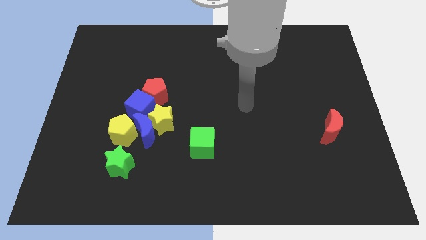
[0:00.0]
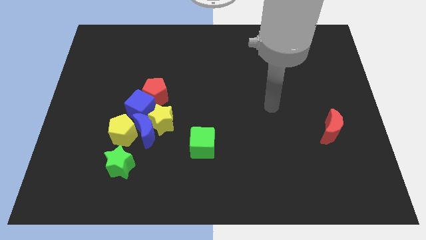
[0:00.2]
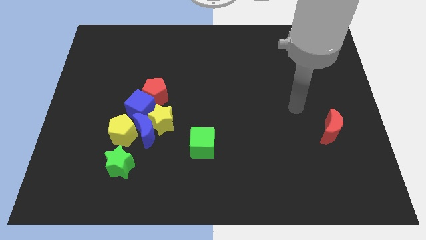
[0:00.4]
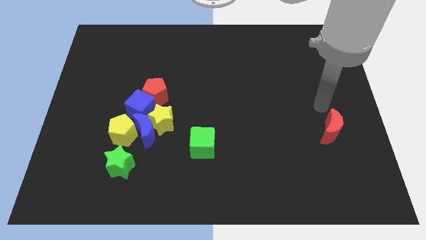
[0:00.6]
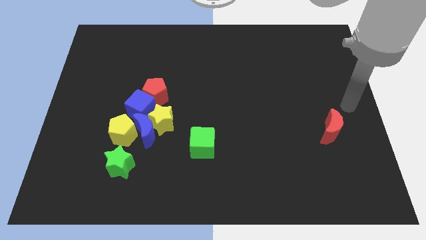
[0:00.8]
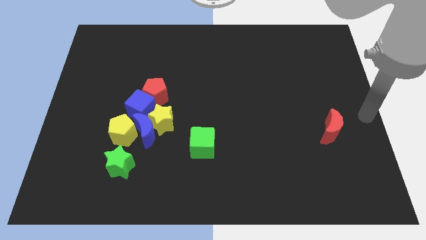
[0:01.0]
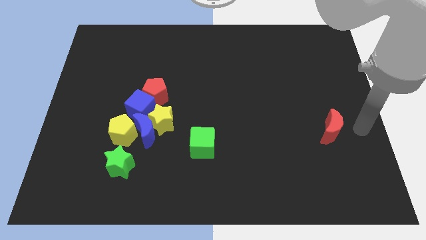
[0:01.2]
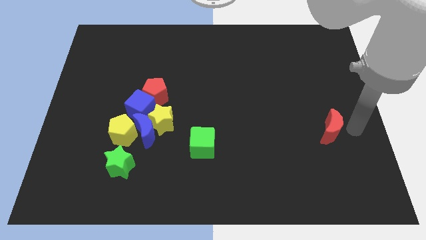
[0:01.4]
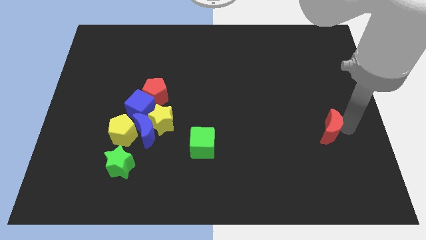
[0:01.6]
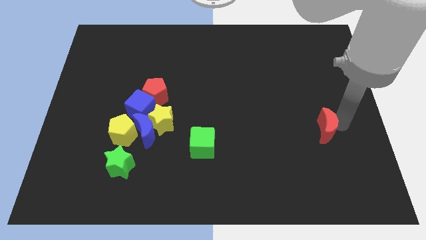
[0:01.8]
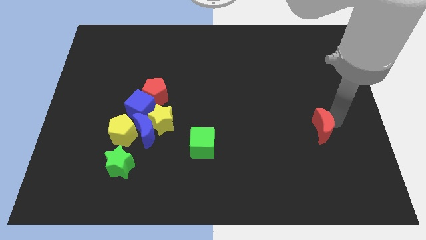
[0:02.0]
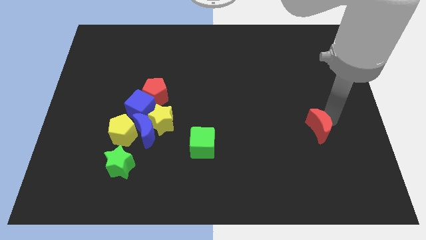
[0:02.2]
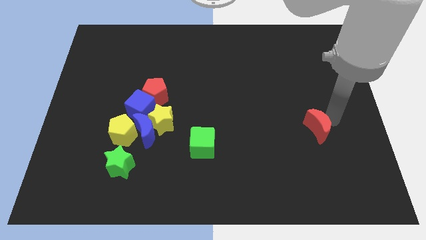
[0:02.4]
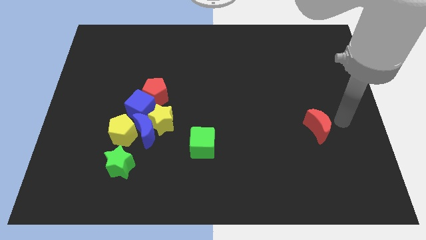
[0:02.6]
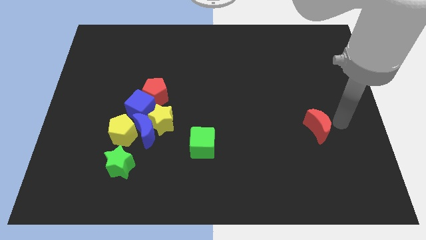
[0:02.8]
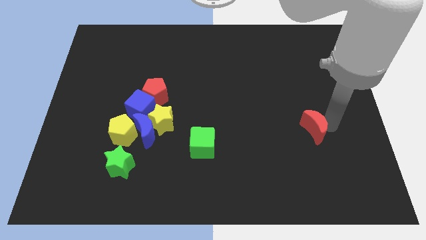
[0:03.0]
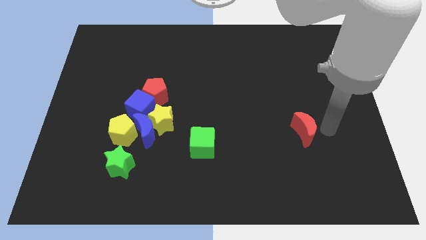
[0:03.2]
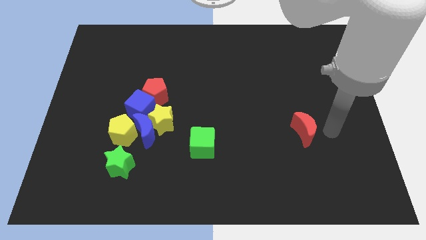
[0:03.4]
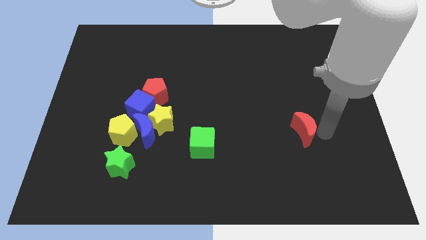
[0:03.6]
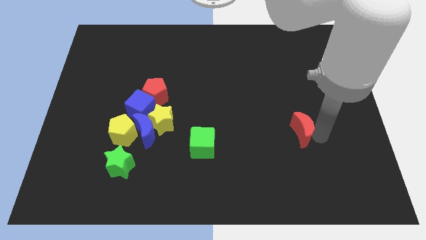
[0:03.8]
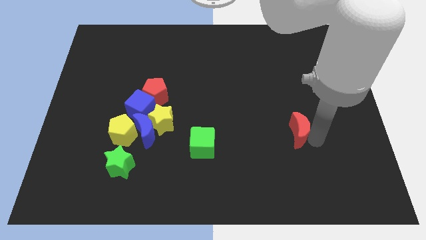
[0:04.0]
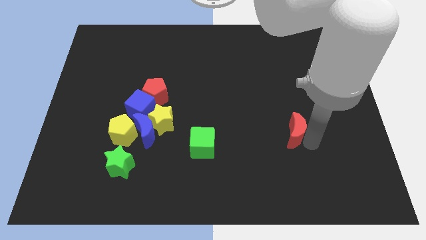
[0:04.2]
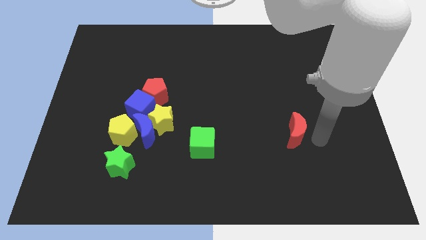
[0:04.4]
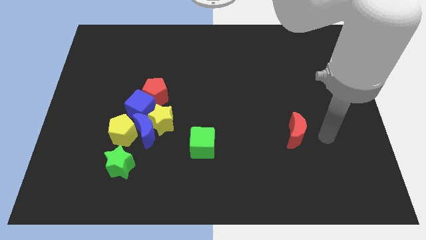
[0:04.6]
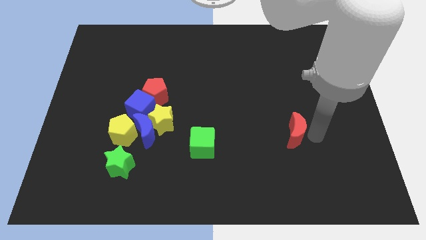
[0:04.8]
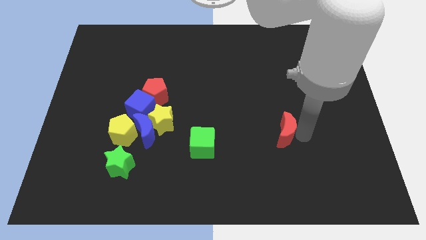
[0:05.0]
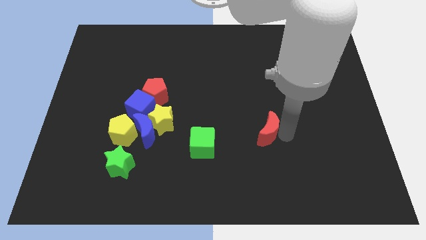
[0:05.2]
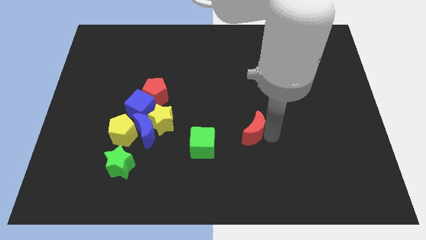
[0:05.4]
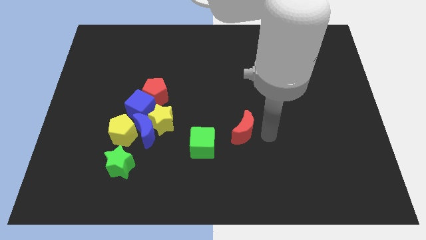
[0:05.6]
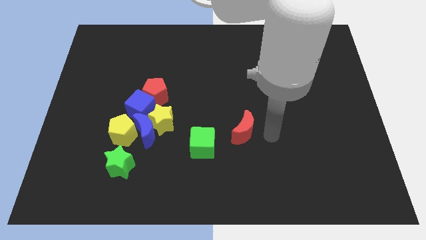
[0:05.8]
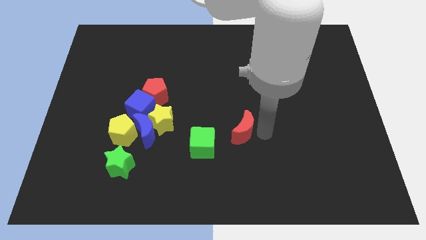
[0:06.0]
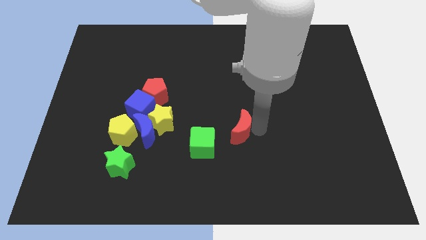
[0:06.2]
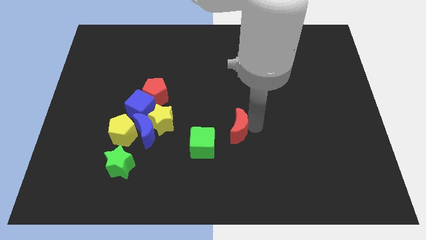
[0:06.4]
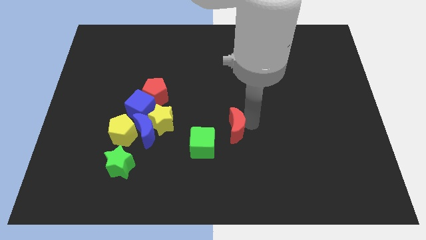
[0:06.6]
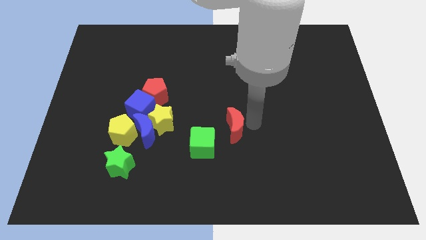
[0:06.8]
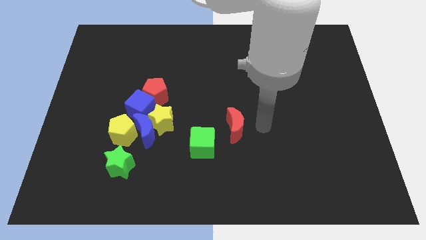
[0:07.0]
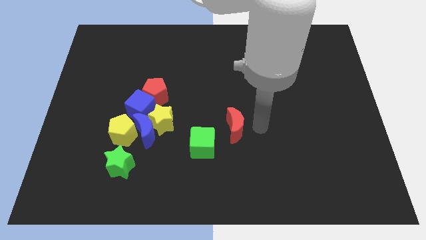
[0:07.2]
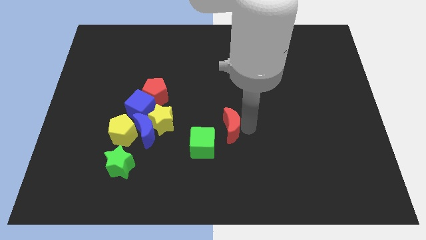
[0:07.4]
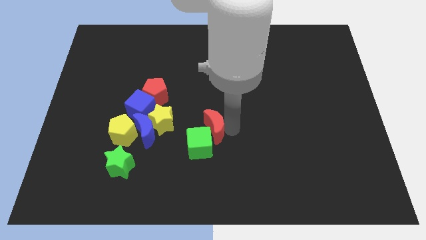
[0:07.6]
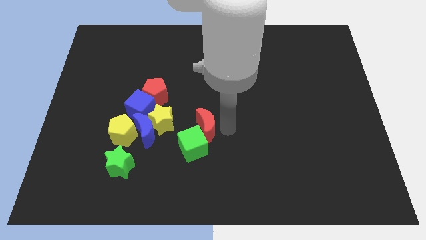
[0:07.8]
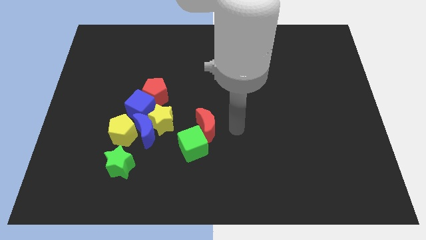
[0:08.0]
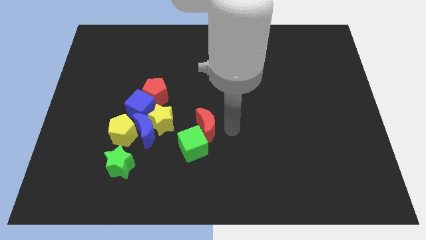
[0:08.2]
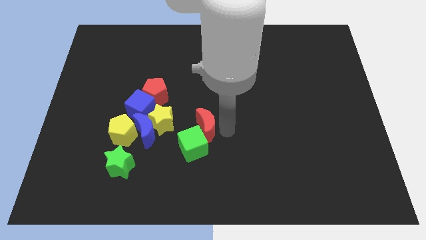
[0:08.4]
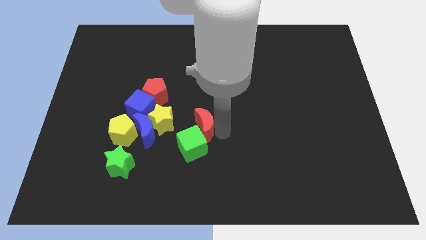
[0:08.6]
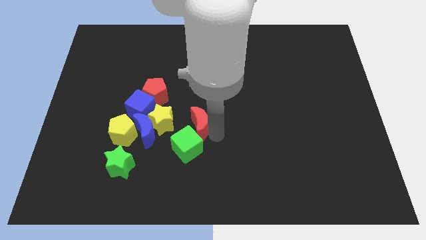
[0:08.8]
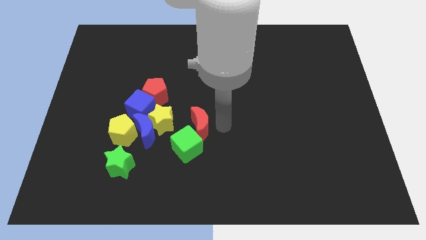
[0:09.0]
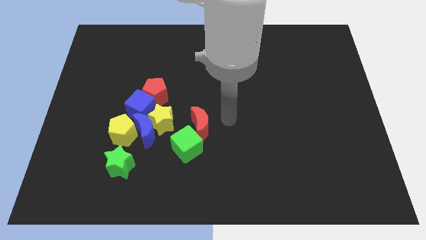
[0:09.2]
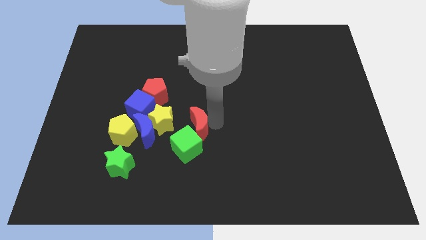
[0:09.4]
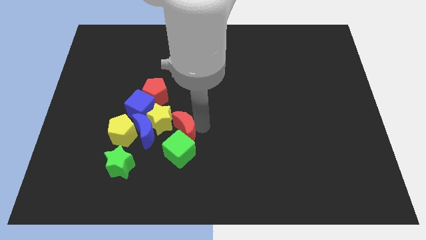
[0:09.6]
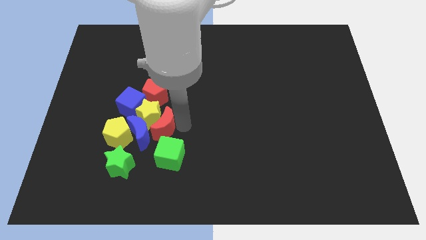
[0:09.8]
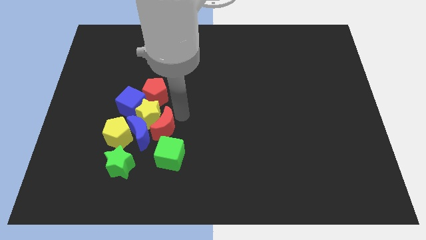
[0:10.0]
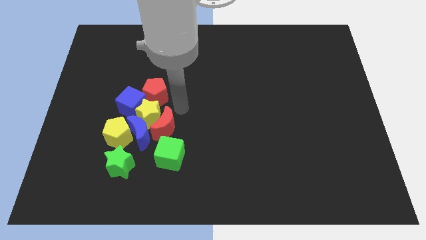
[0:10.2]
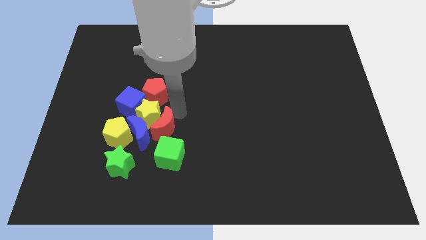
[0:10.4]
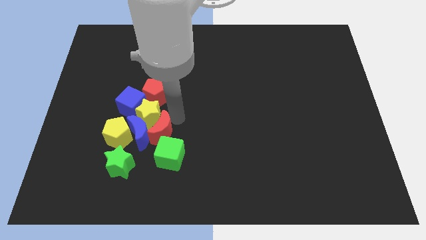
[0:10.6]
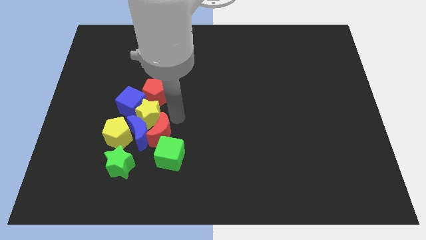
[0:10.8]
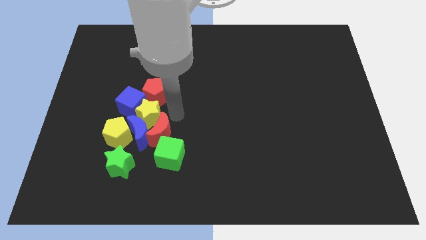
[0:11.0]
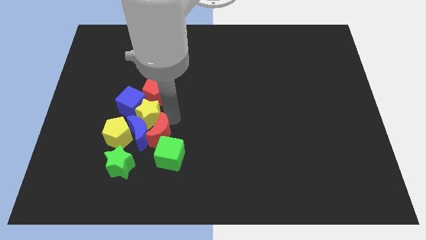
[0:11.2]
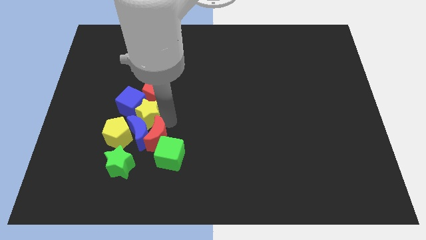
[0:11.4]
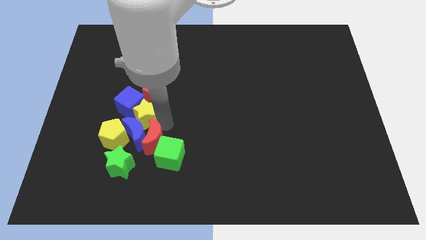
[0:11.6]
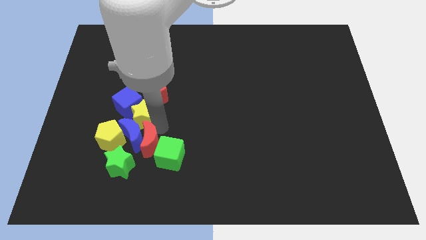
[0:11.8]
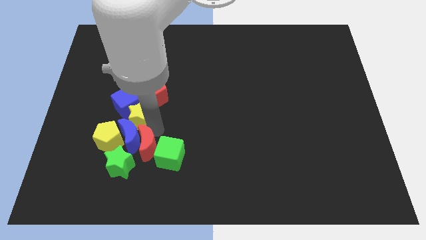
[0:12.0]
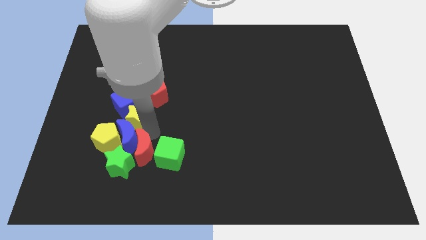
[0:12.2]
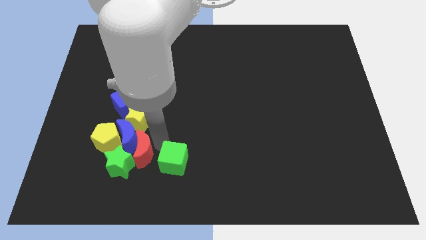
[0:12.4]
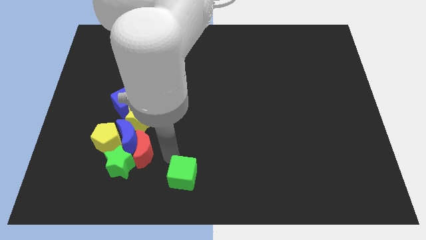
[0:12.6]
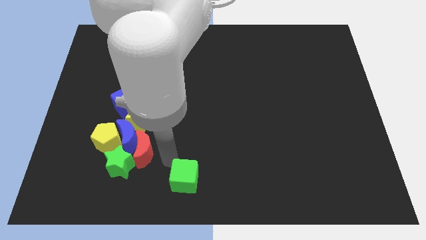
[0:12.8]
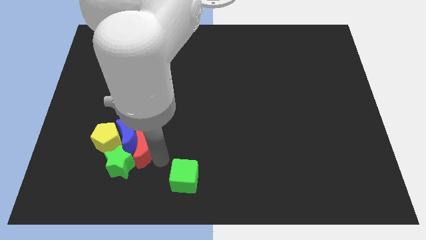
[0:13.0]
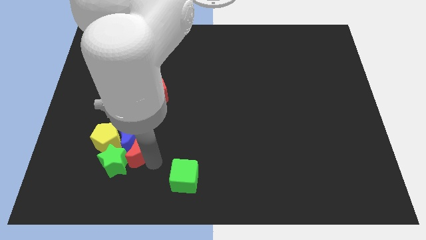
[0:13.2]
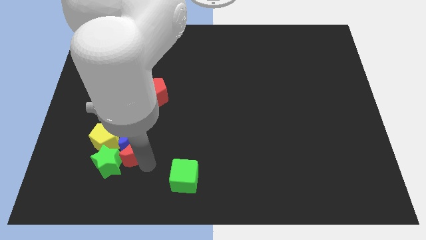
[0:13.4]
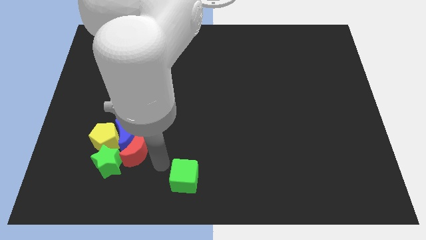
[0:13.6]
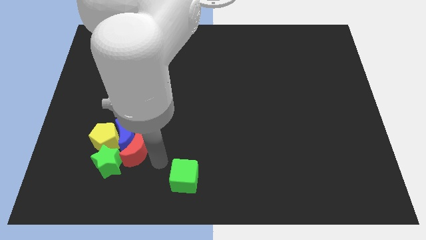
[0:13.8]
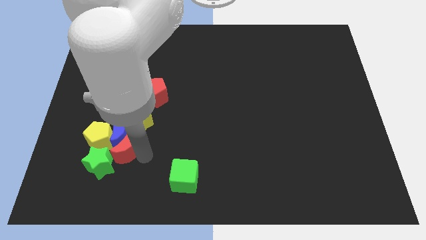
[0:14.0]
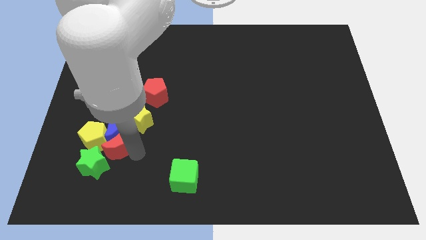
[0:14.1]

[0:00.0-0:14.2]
slide the red moon next to the yellow pentagon

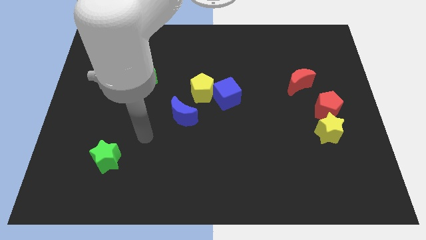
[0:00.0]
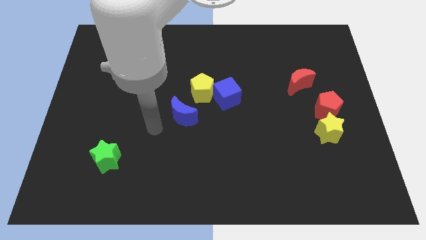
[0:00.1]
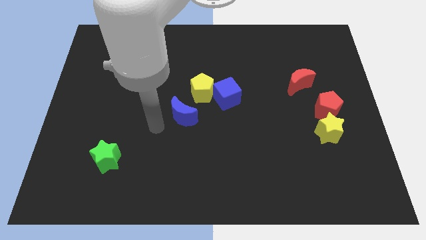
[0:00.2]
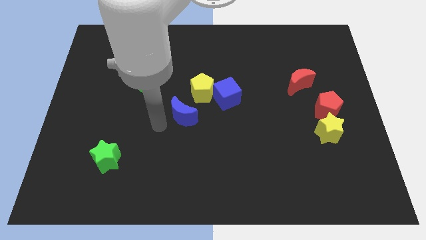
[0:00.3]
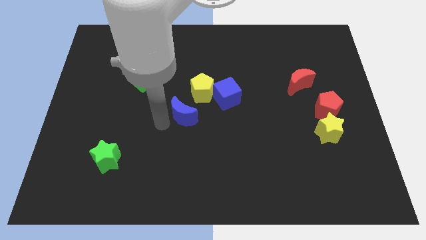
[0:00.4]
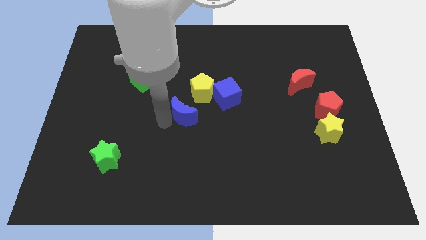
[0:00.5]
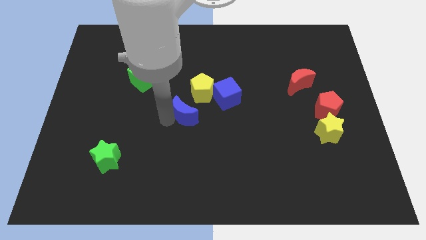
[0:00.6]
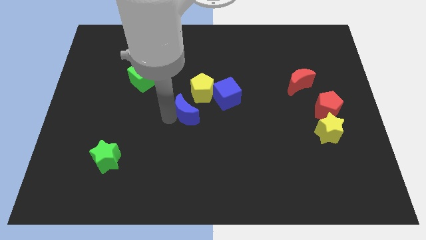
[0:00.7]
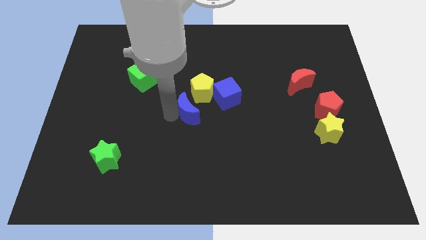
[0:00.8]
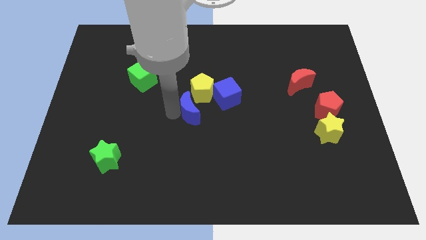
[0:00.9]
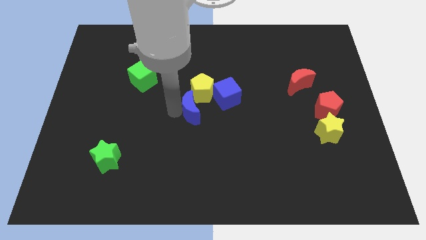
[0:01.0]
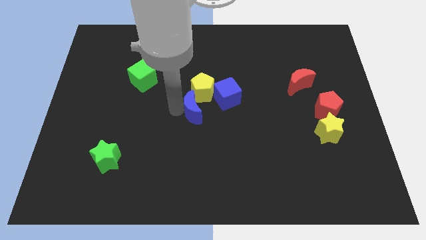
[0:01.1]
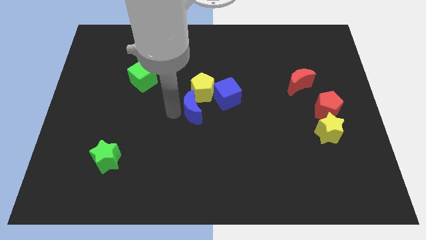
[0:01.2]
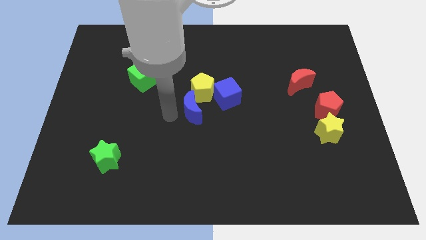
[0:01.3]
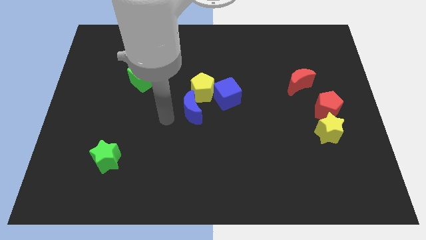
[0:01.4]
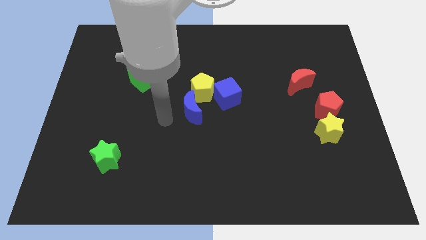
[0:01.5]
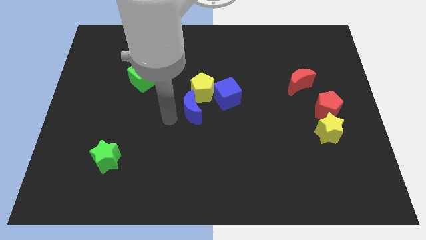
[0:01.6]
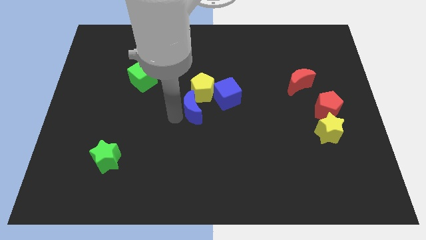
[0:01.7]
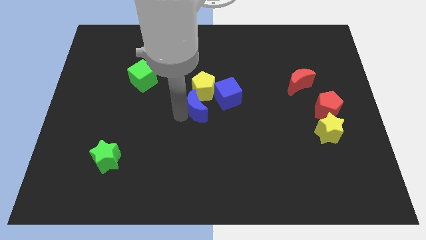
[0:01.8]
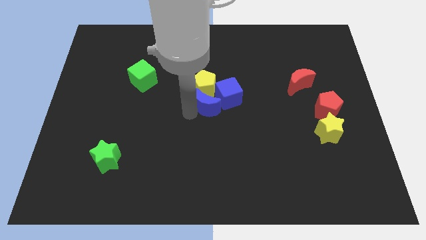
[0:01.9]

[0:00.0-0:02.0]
move the blue moon next to the blue cube
